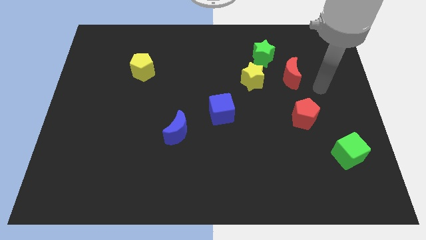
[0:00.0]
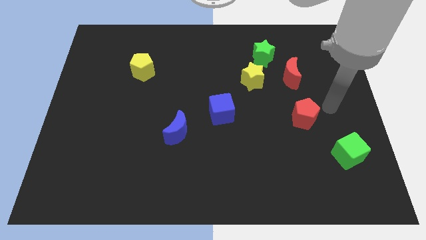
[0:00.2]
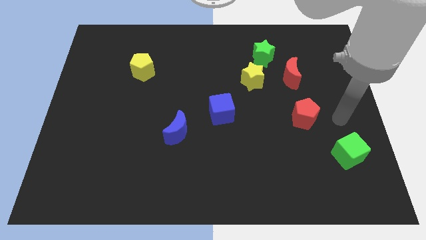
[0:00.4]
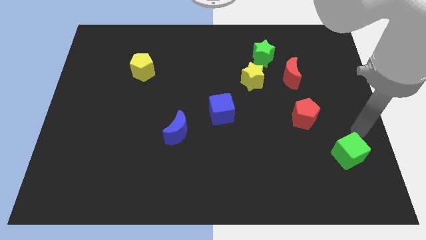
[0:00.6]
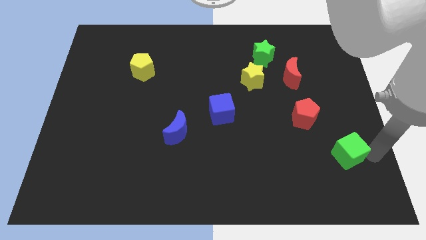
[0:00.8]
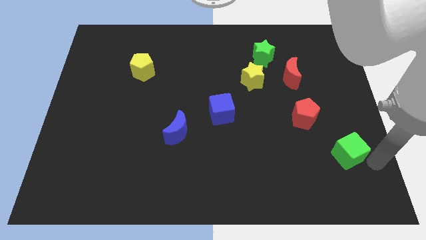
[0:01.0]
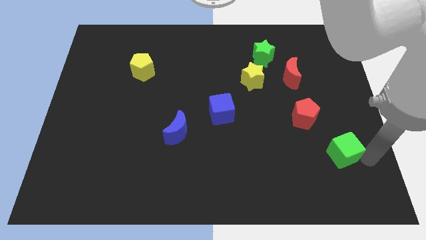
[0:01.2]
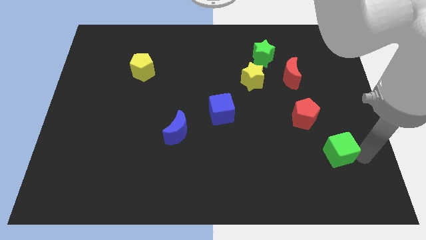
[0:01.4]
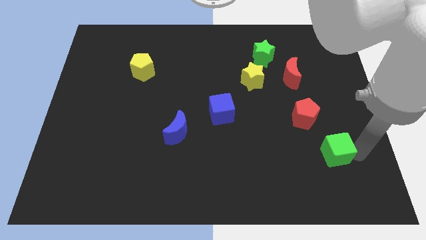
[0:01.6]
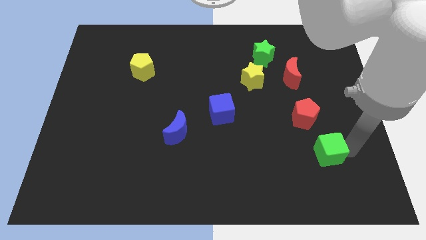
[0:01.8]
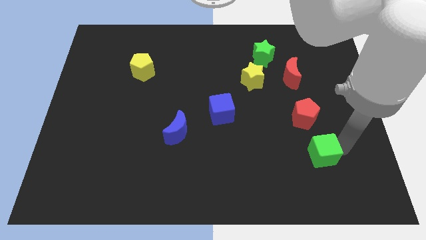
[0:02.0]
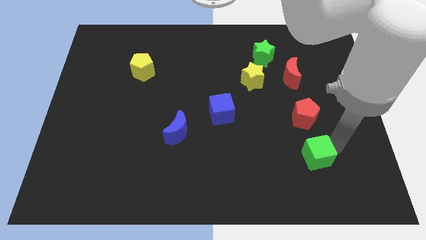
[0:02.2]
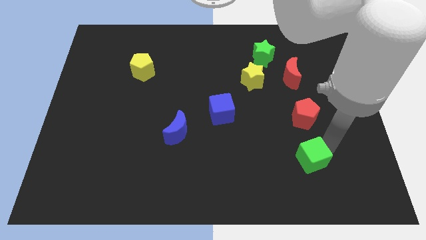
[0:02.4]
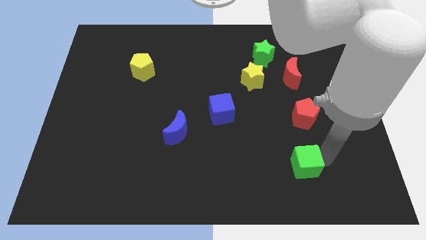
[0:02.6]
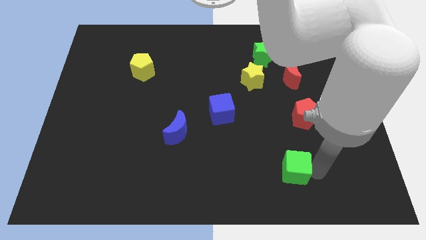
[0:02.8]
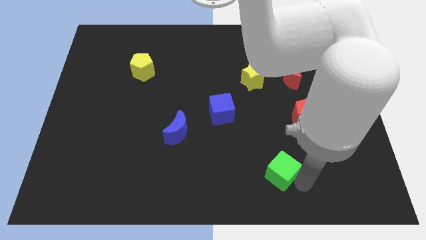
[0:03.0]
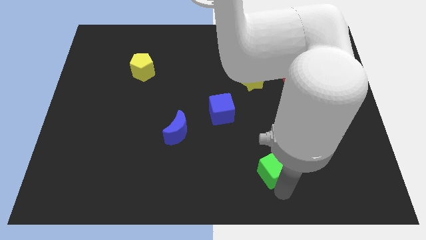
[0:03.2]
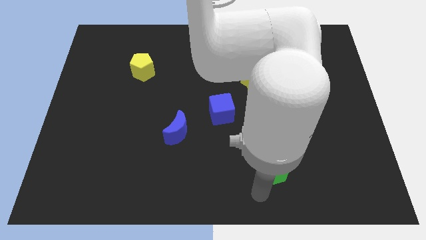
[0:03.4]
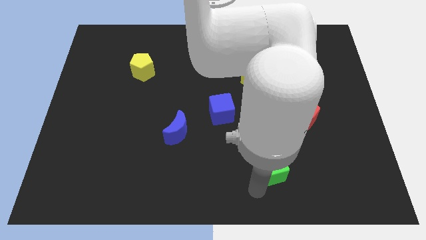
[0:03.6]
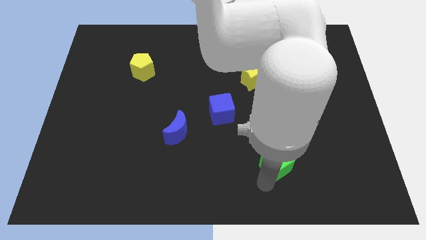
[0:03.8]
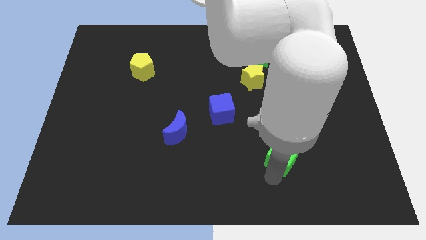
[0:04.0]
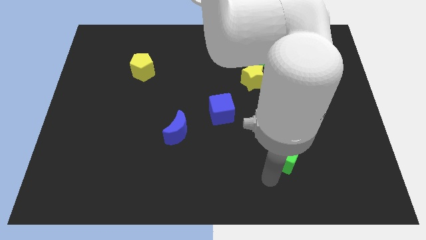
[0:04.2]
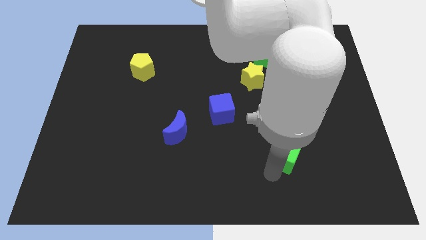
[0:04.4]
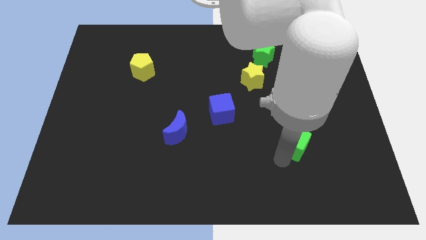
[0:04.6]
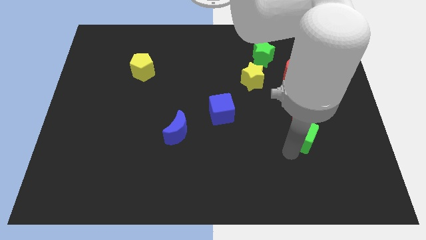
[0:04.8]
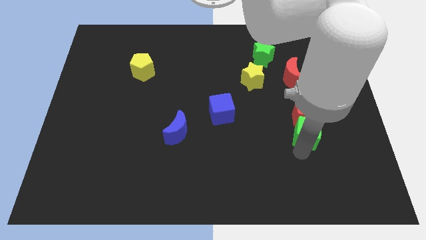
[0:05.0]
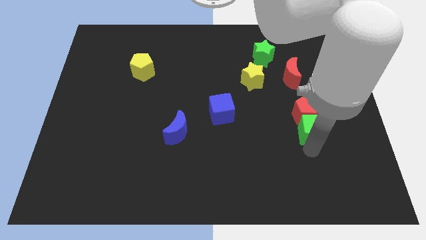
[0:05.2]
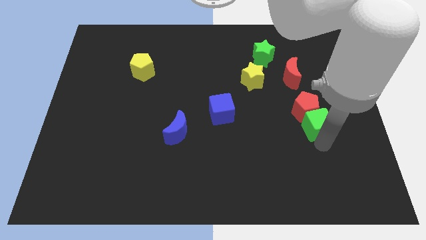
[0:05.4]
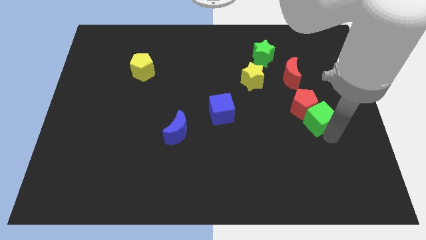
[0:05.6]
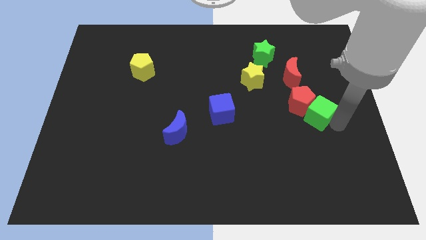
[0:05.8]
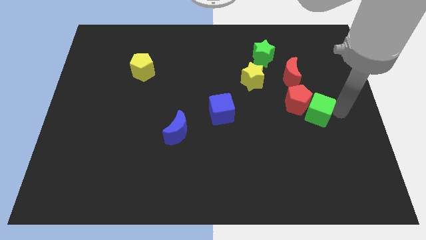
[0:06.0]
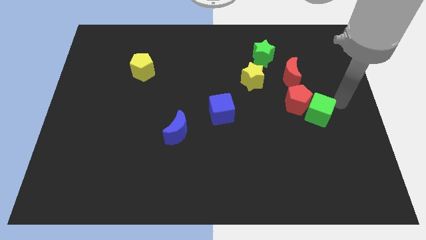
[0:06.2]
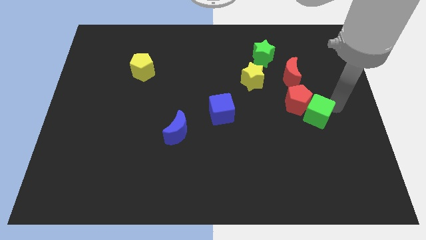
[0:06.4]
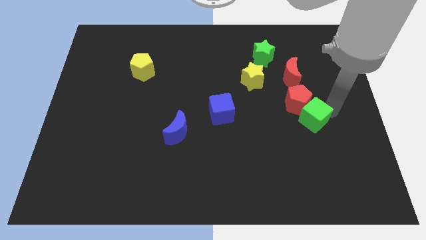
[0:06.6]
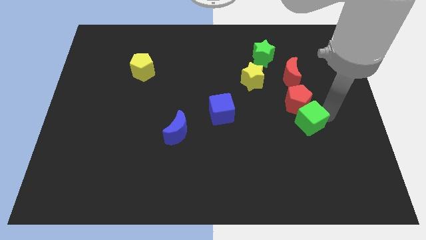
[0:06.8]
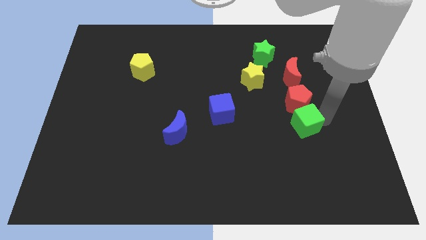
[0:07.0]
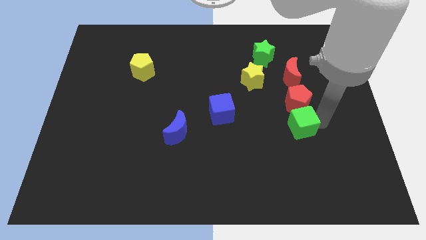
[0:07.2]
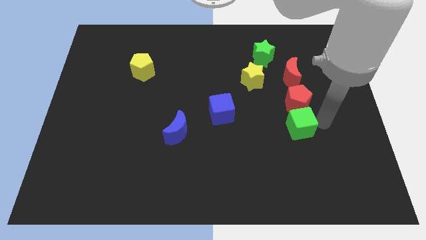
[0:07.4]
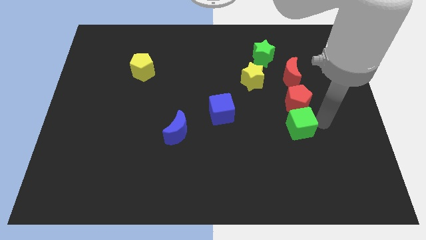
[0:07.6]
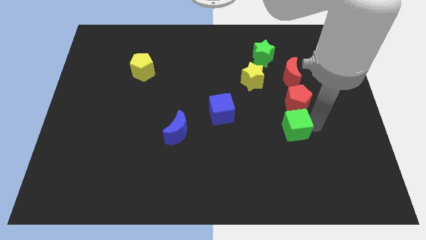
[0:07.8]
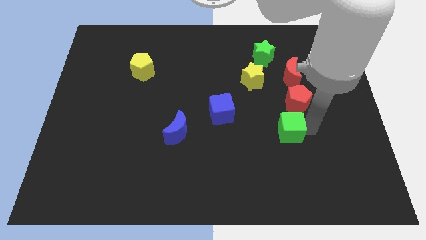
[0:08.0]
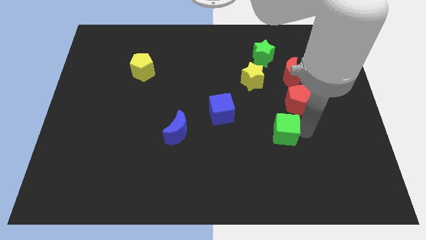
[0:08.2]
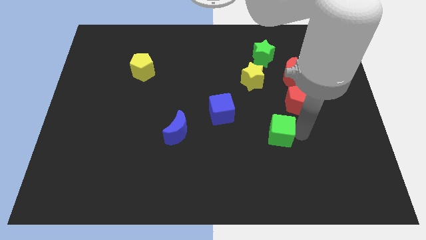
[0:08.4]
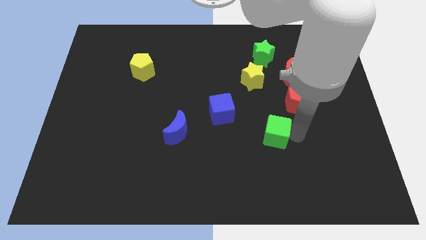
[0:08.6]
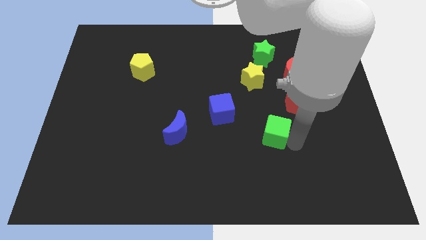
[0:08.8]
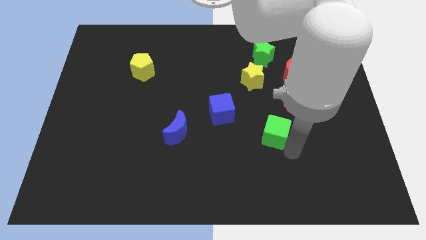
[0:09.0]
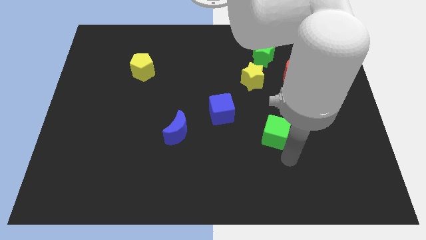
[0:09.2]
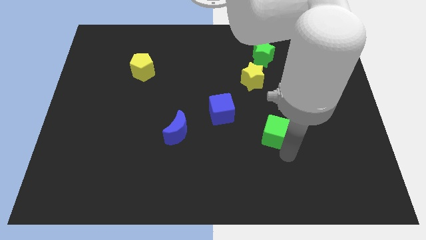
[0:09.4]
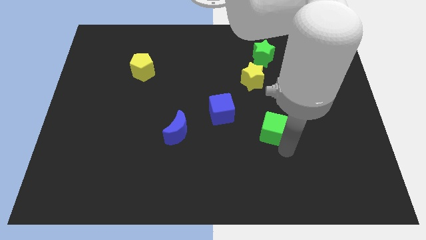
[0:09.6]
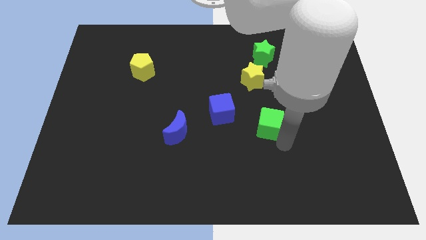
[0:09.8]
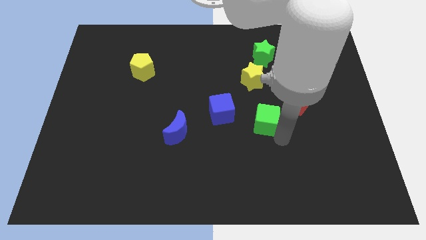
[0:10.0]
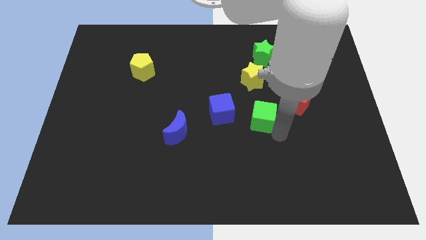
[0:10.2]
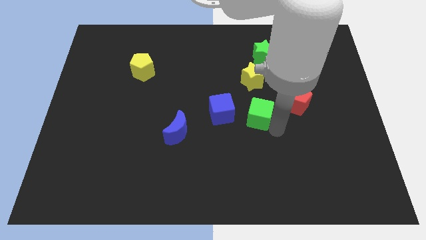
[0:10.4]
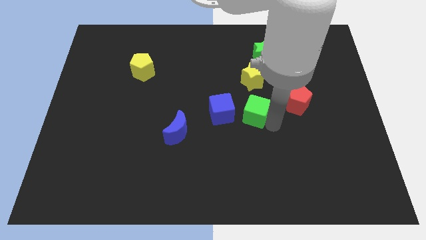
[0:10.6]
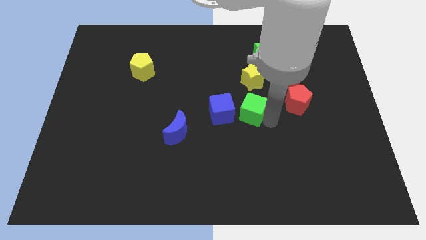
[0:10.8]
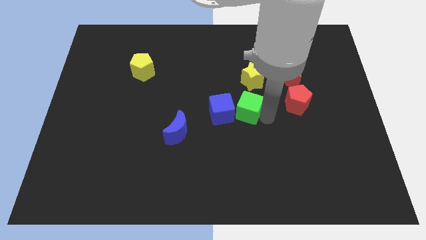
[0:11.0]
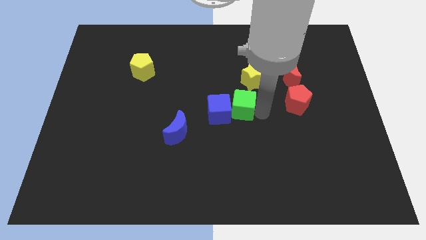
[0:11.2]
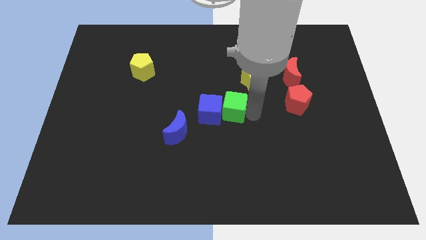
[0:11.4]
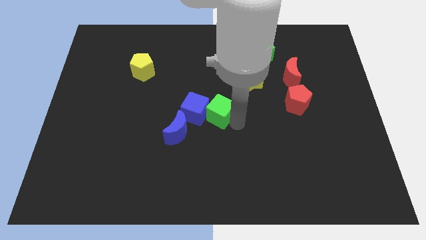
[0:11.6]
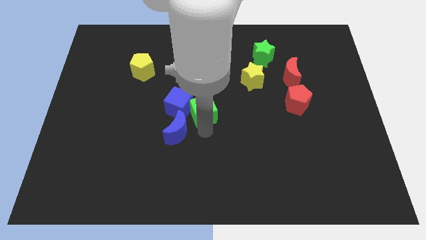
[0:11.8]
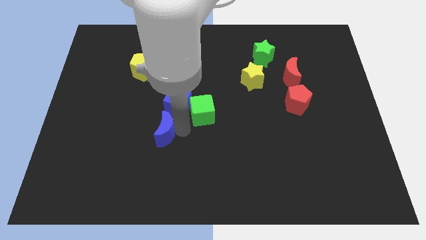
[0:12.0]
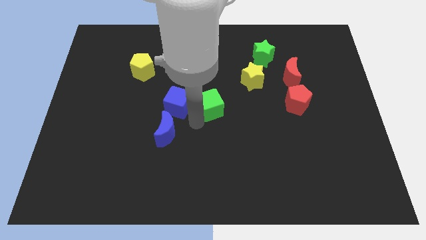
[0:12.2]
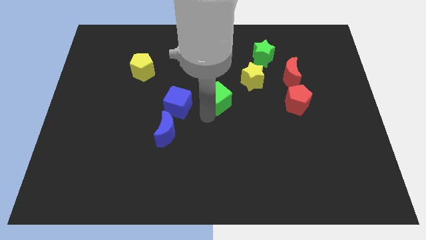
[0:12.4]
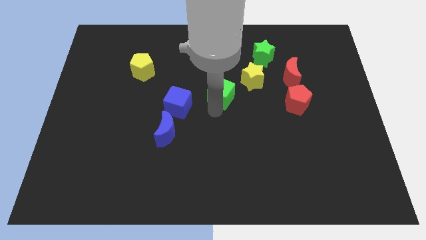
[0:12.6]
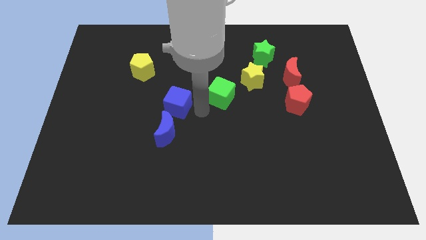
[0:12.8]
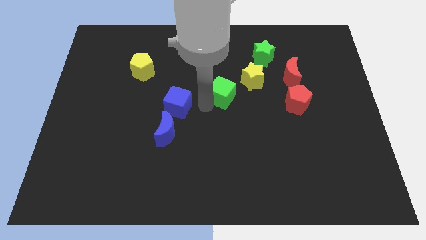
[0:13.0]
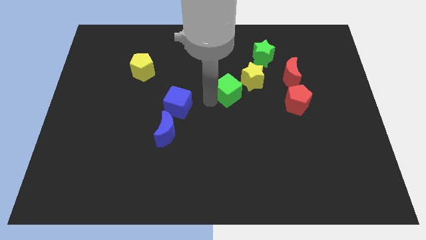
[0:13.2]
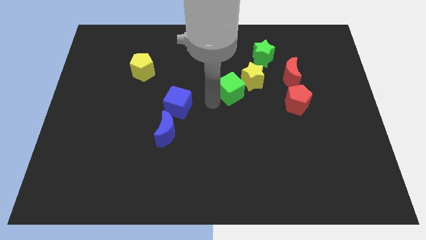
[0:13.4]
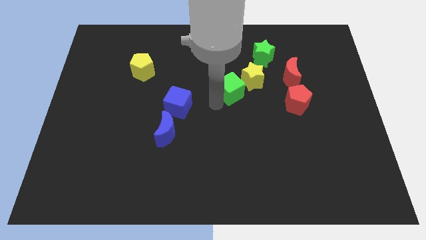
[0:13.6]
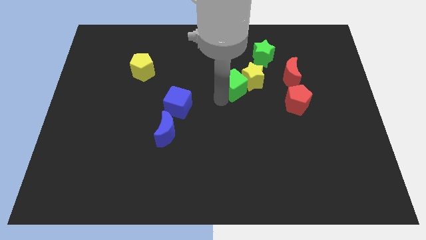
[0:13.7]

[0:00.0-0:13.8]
push the green cube to the left of the red moon
